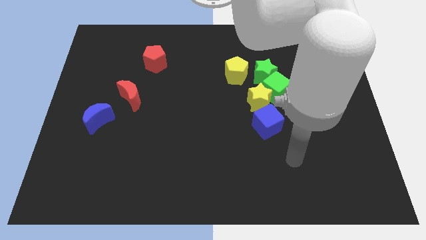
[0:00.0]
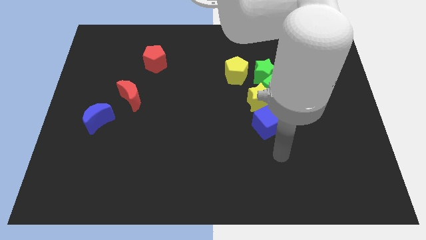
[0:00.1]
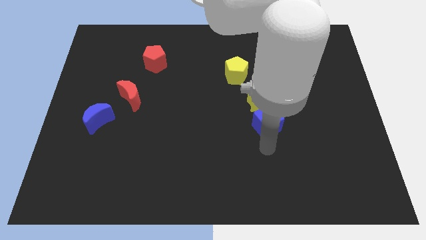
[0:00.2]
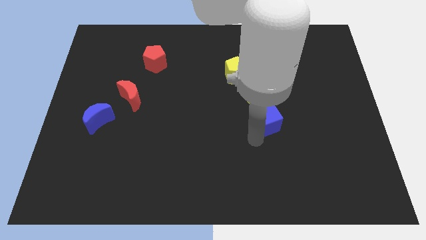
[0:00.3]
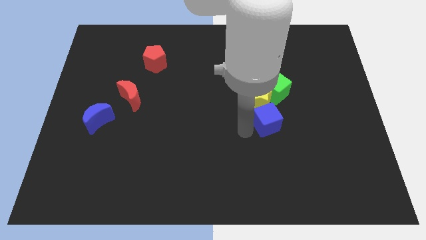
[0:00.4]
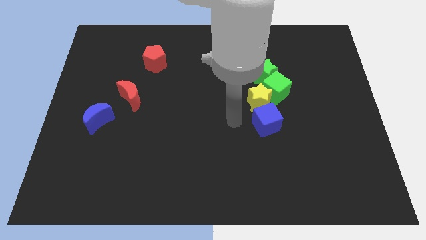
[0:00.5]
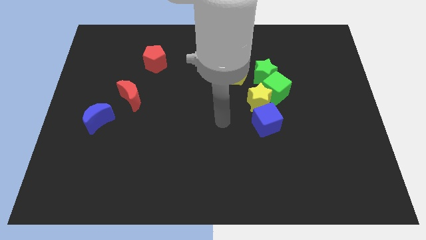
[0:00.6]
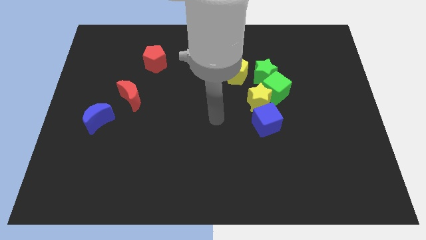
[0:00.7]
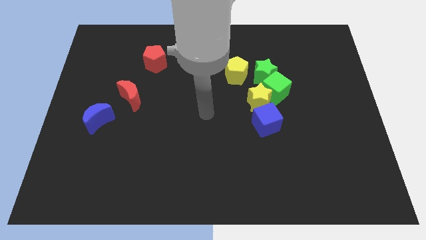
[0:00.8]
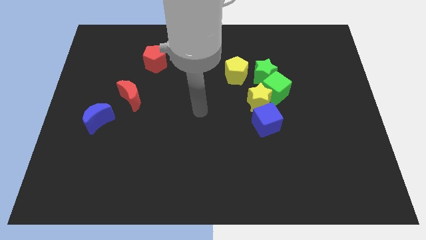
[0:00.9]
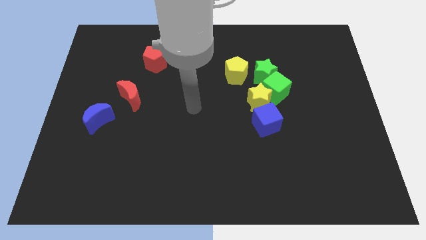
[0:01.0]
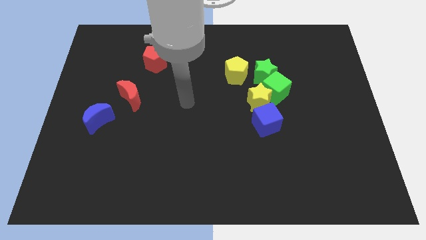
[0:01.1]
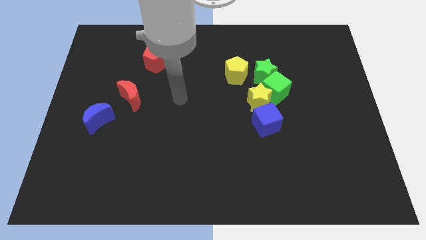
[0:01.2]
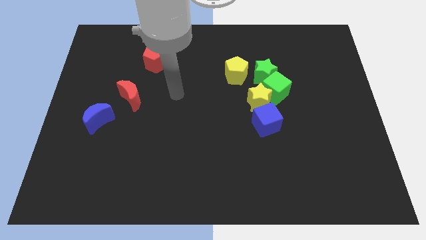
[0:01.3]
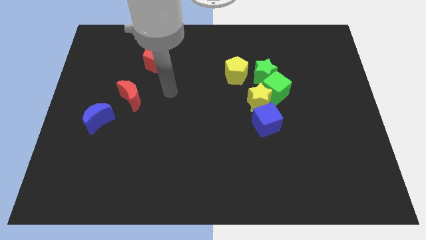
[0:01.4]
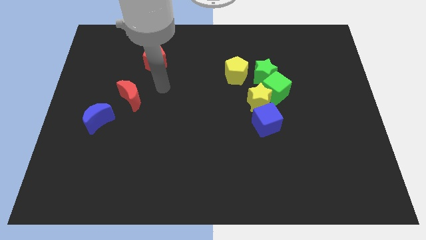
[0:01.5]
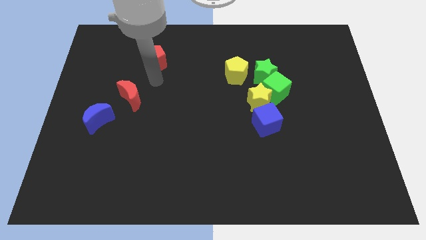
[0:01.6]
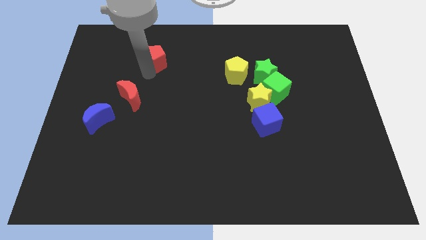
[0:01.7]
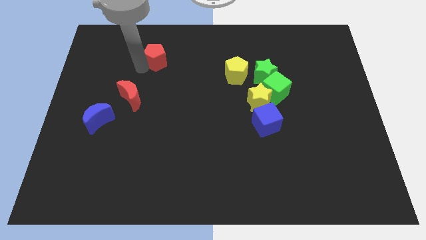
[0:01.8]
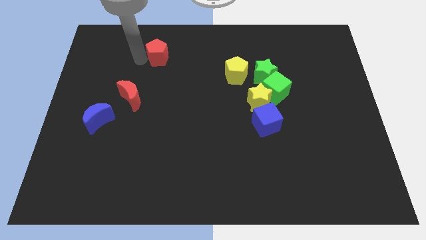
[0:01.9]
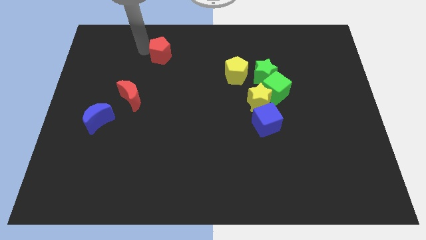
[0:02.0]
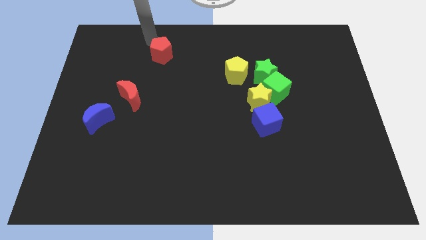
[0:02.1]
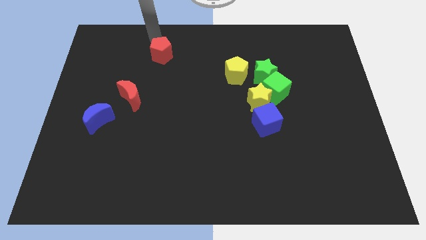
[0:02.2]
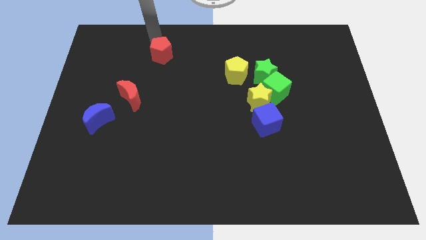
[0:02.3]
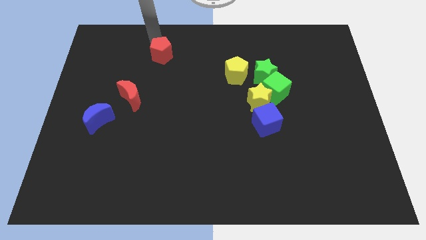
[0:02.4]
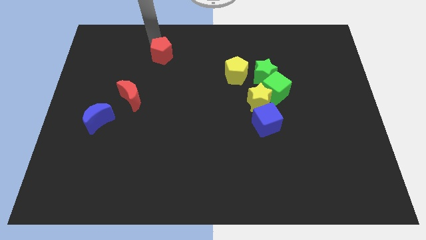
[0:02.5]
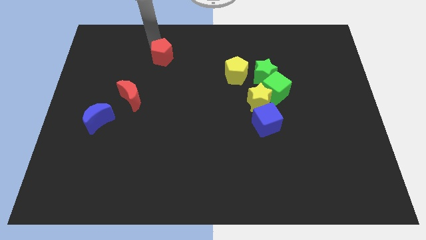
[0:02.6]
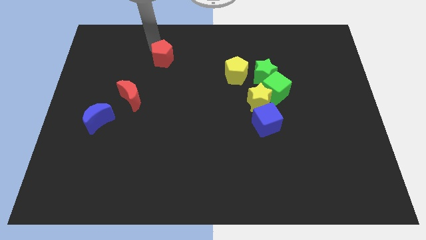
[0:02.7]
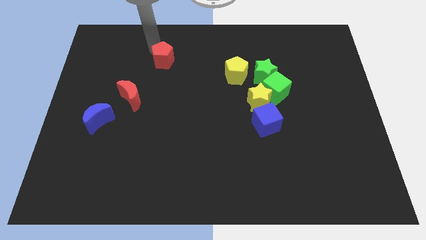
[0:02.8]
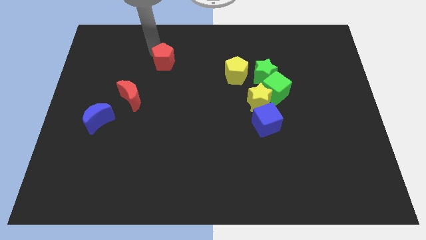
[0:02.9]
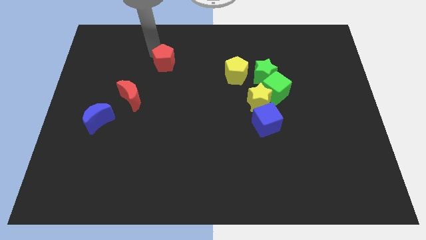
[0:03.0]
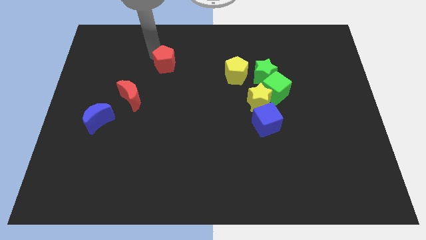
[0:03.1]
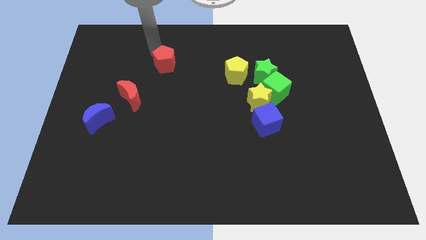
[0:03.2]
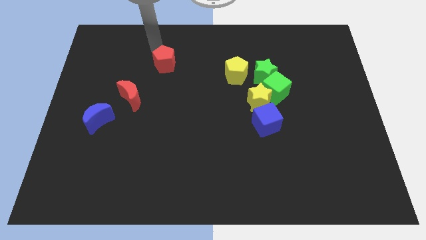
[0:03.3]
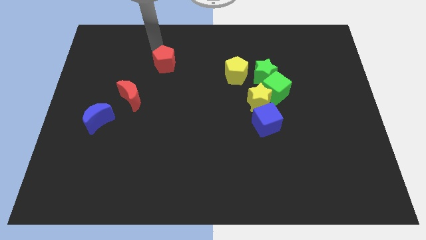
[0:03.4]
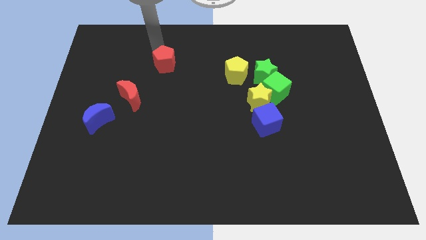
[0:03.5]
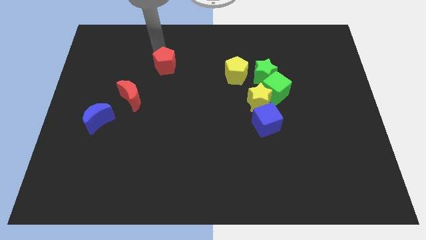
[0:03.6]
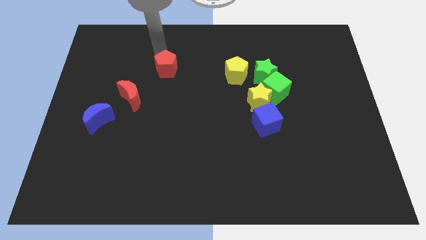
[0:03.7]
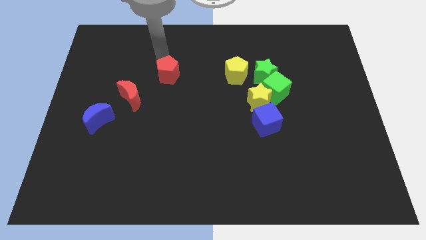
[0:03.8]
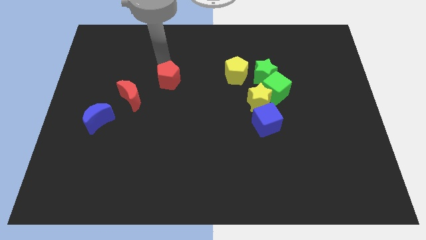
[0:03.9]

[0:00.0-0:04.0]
move the red pentagon diagonally down and right a little bit

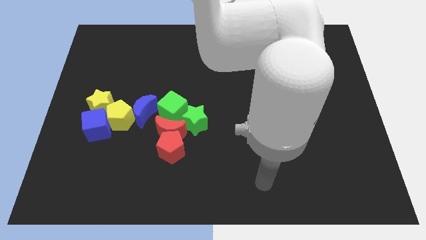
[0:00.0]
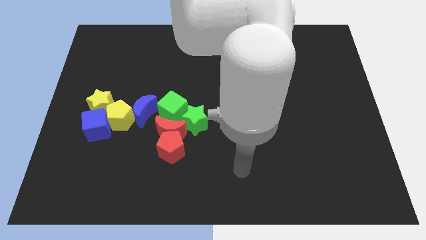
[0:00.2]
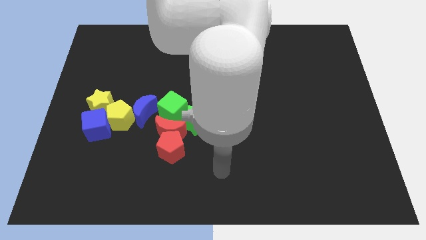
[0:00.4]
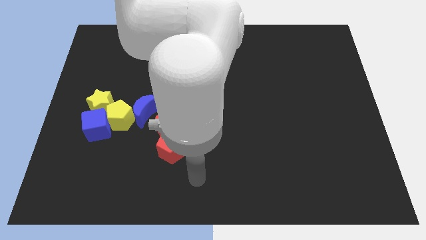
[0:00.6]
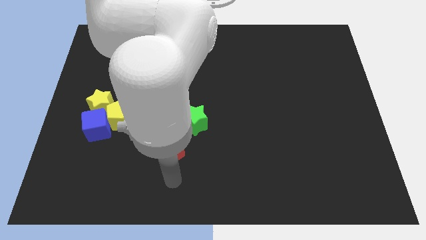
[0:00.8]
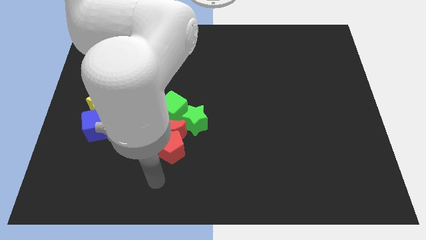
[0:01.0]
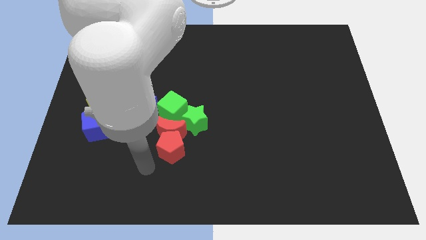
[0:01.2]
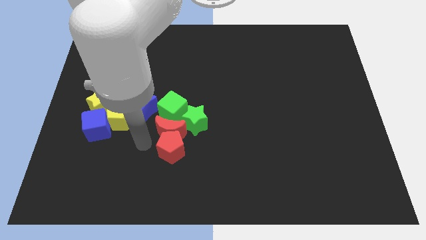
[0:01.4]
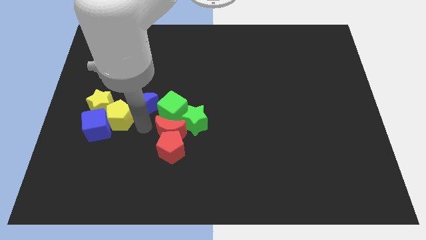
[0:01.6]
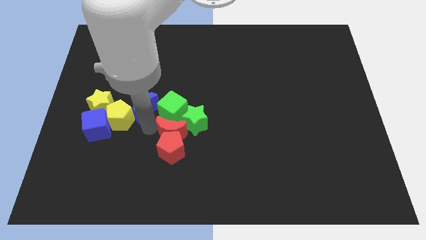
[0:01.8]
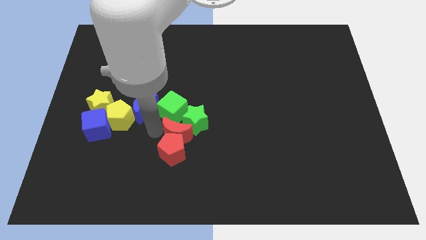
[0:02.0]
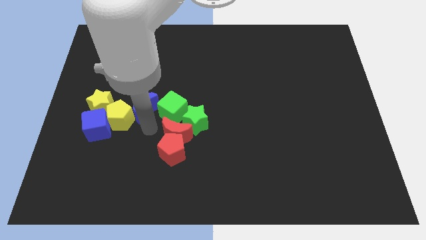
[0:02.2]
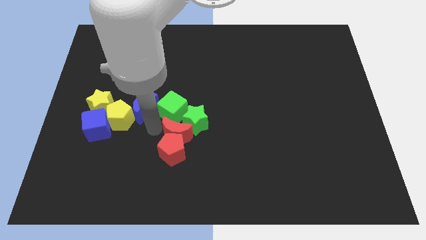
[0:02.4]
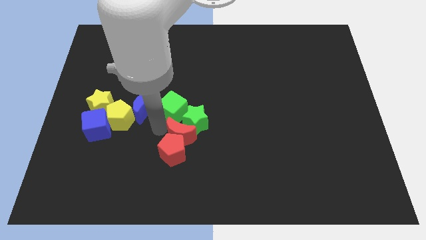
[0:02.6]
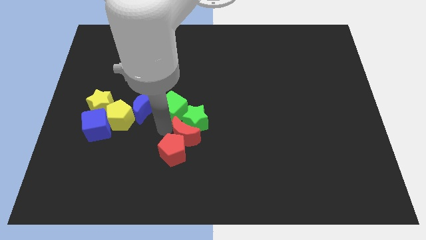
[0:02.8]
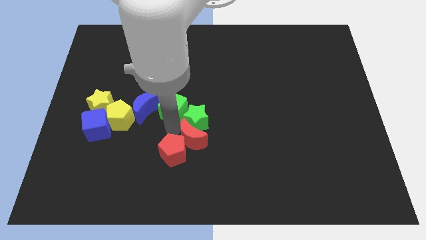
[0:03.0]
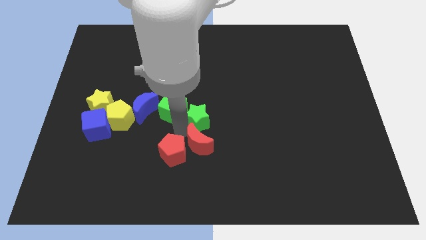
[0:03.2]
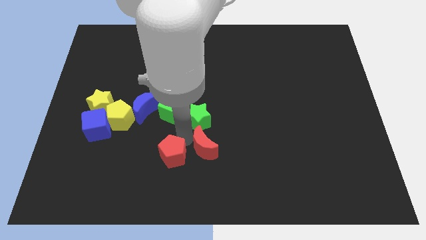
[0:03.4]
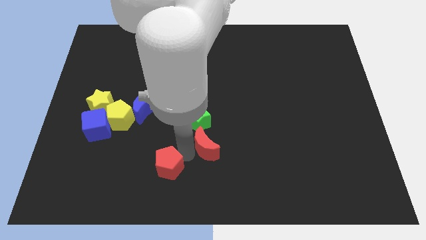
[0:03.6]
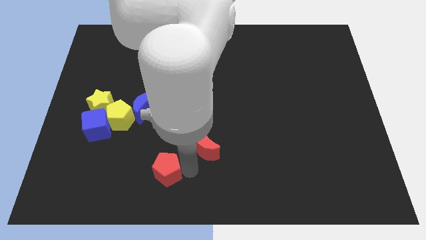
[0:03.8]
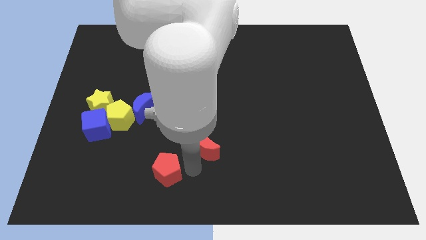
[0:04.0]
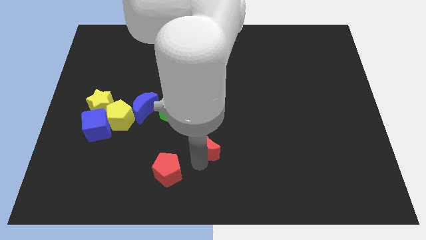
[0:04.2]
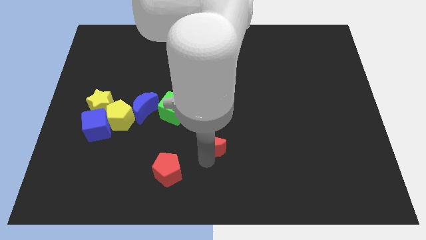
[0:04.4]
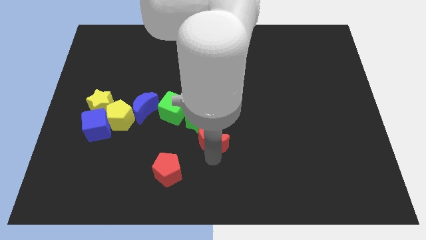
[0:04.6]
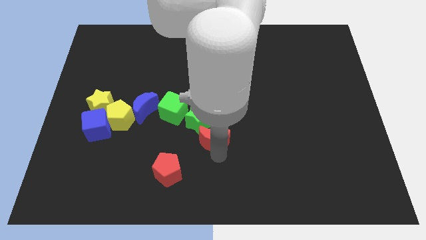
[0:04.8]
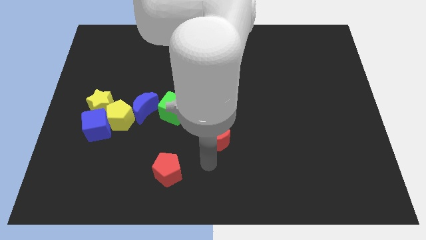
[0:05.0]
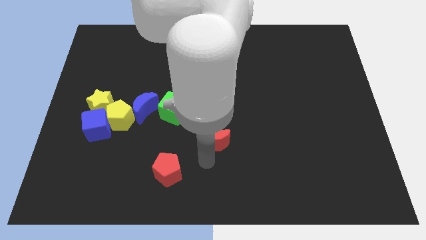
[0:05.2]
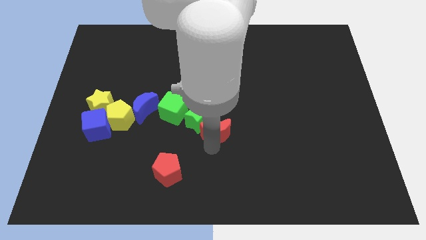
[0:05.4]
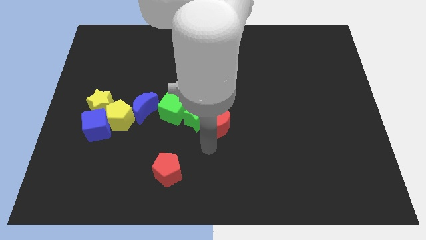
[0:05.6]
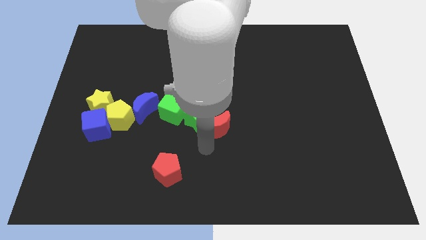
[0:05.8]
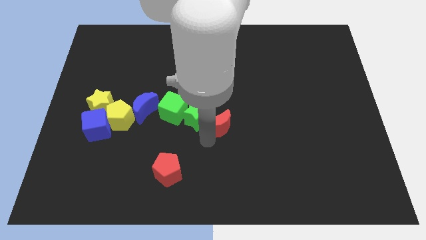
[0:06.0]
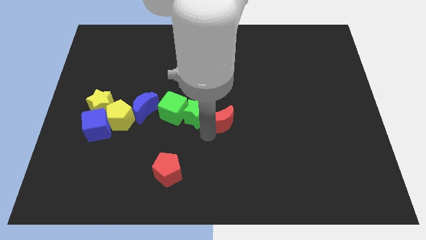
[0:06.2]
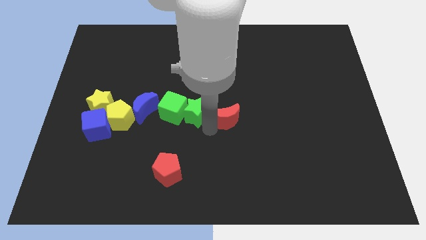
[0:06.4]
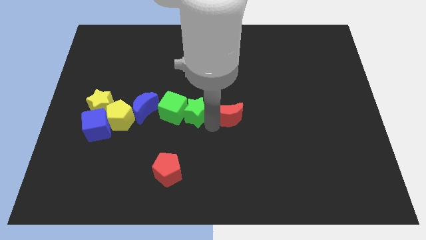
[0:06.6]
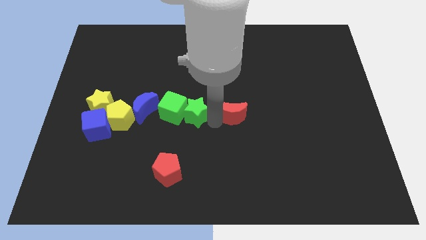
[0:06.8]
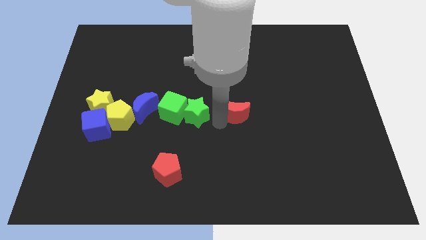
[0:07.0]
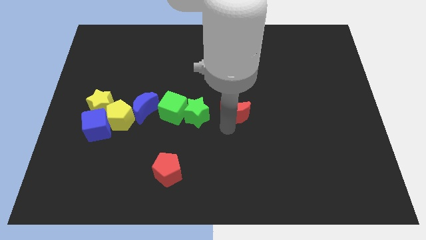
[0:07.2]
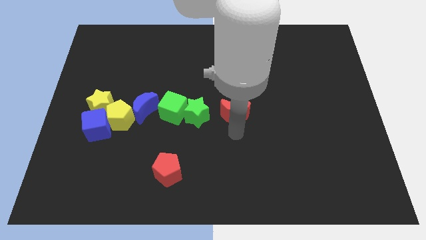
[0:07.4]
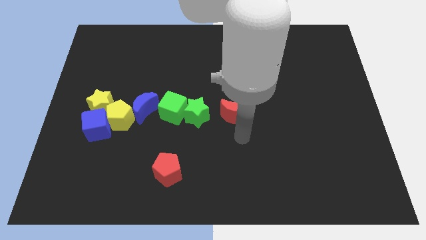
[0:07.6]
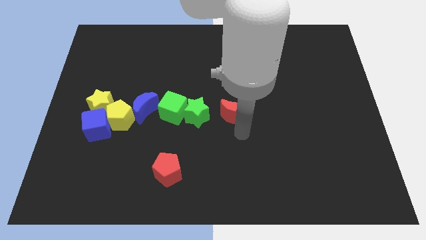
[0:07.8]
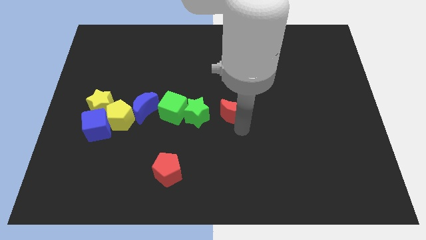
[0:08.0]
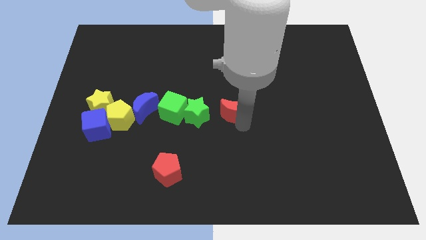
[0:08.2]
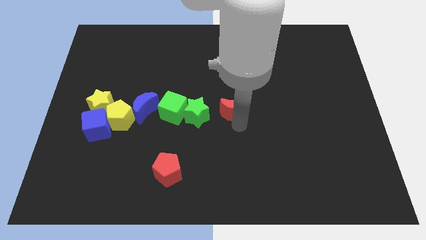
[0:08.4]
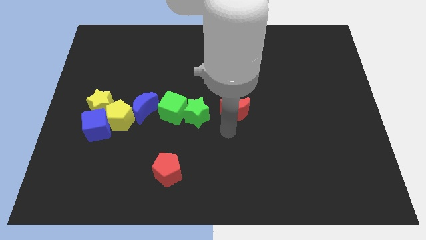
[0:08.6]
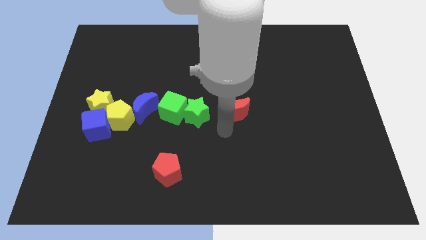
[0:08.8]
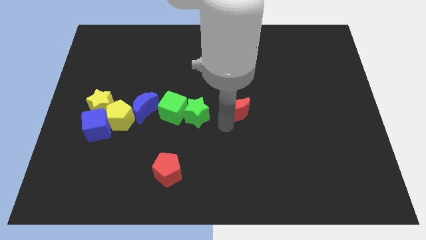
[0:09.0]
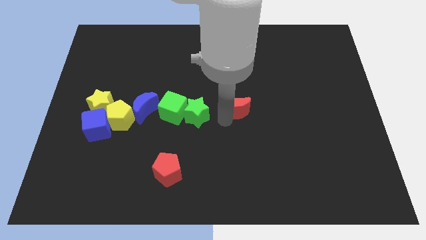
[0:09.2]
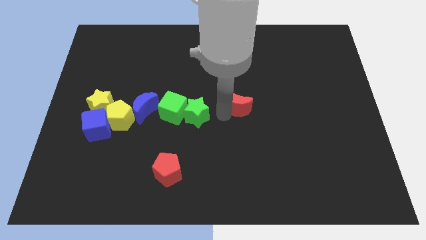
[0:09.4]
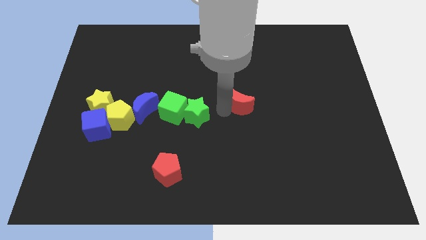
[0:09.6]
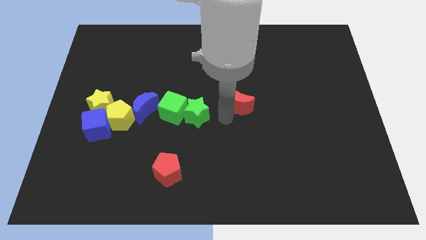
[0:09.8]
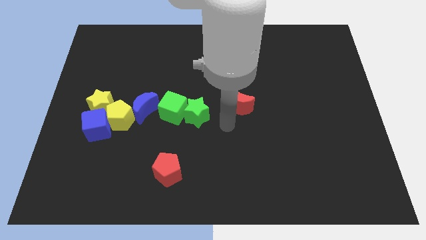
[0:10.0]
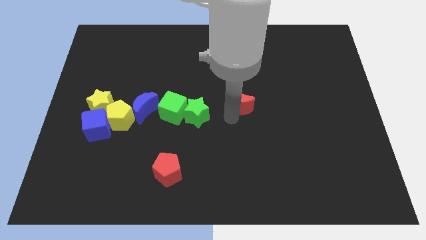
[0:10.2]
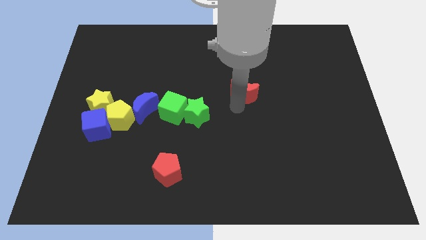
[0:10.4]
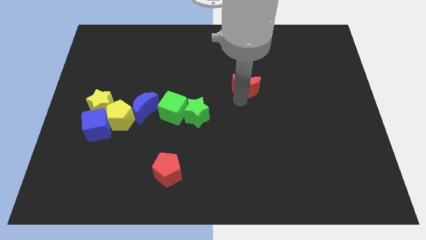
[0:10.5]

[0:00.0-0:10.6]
move the red moon upwards and then right
